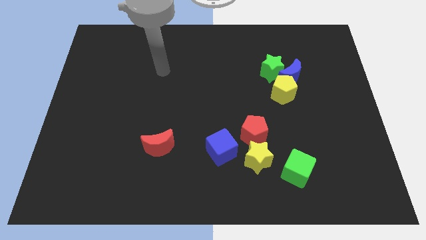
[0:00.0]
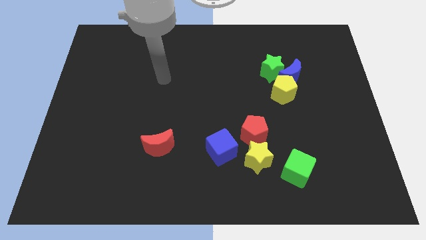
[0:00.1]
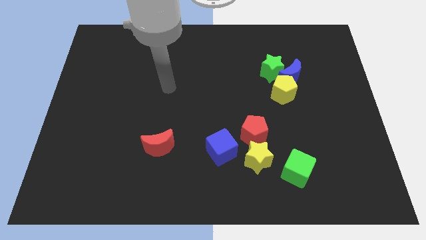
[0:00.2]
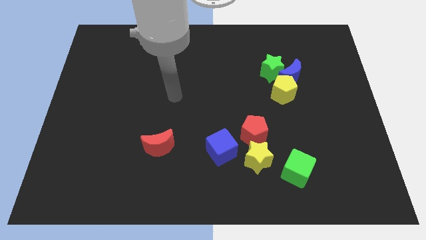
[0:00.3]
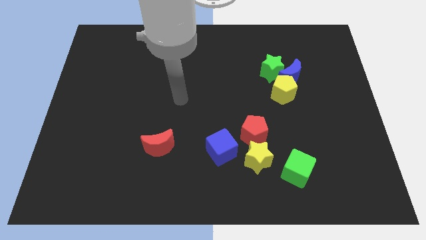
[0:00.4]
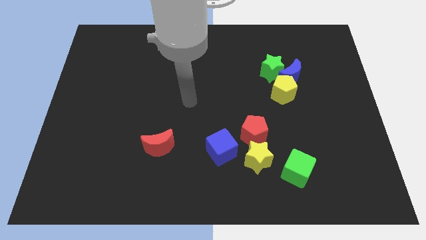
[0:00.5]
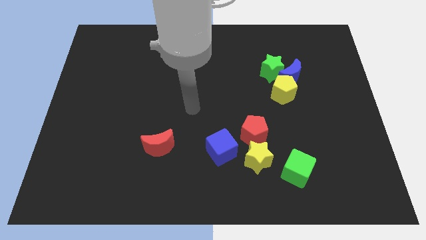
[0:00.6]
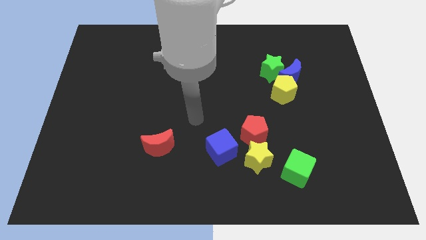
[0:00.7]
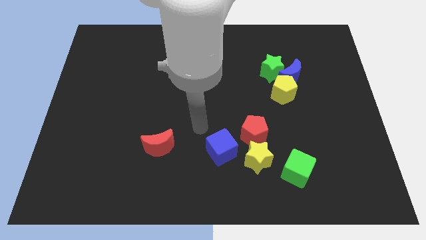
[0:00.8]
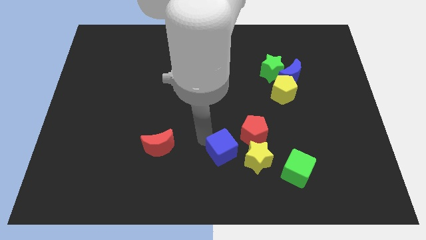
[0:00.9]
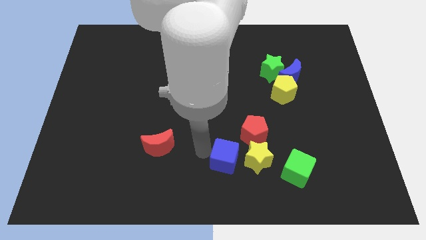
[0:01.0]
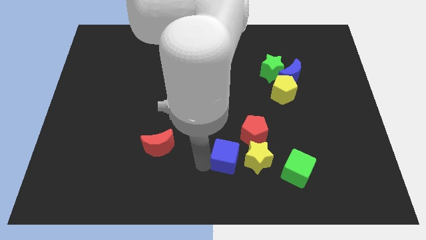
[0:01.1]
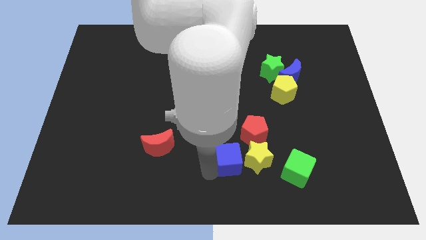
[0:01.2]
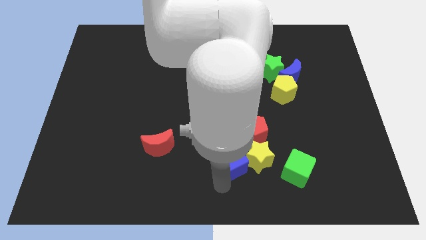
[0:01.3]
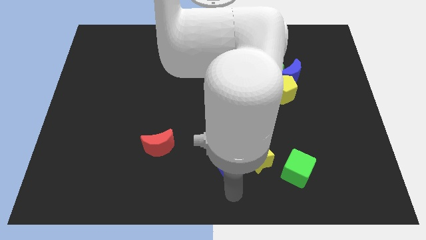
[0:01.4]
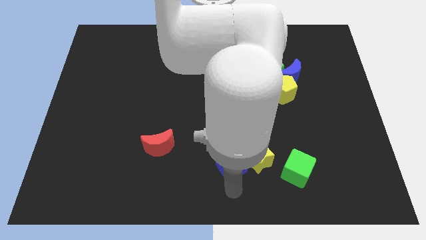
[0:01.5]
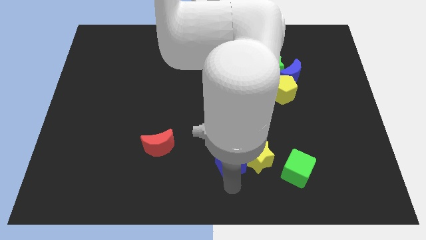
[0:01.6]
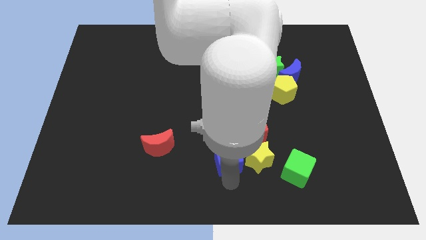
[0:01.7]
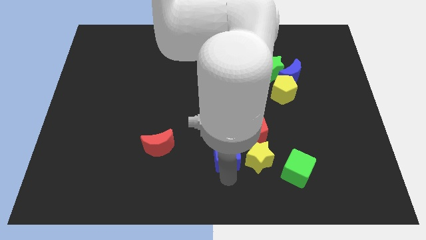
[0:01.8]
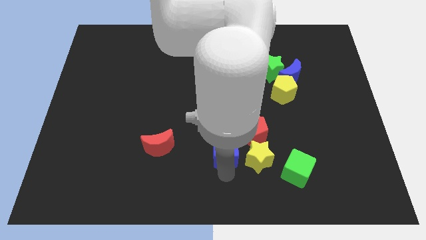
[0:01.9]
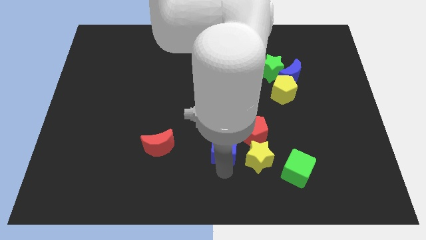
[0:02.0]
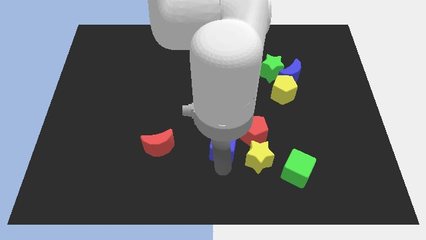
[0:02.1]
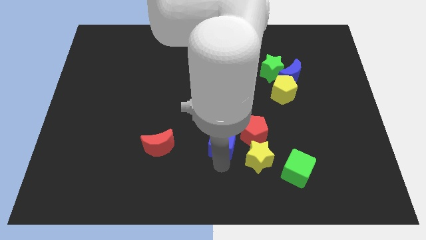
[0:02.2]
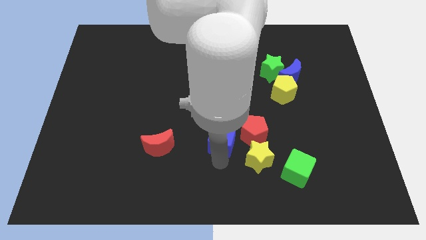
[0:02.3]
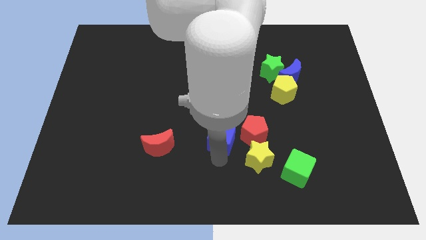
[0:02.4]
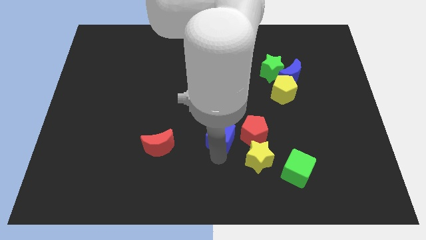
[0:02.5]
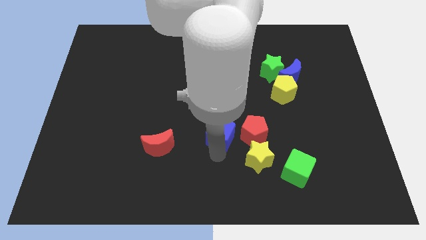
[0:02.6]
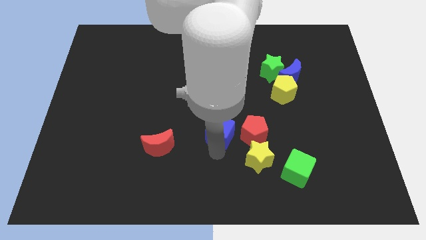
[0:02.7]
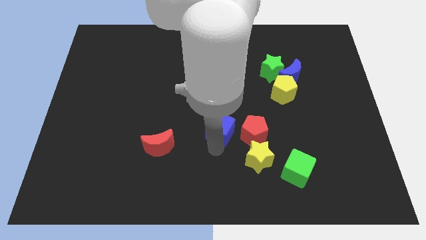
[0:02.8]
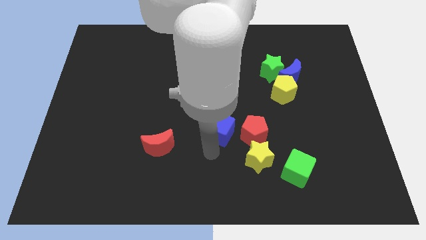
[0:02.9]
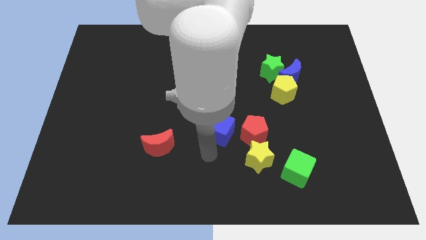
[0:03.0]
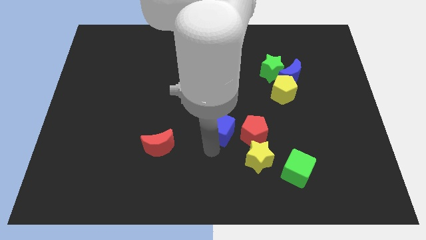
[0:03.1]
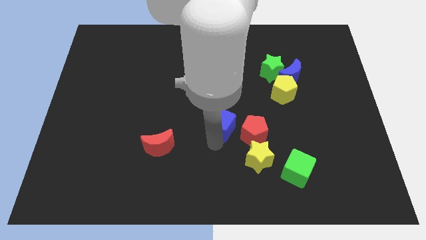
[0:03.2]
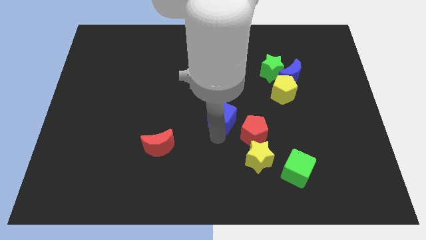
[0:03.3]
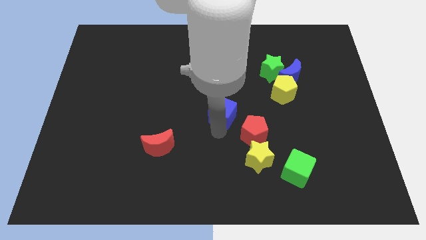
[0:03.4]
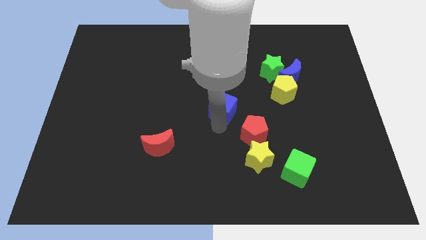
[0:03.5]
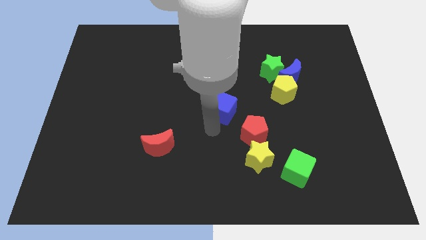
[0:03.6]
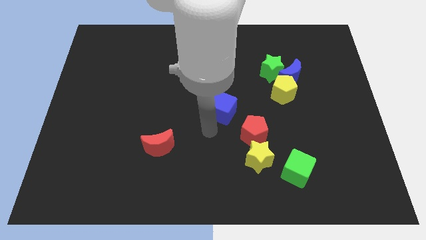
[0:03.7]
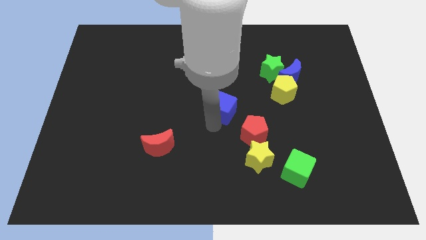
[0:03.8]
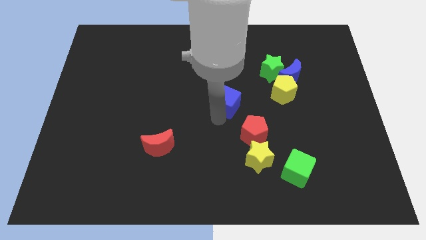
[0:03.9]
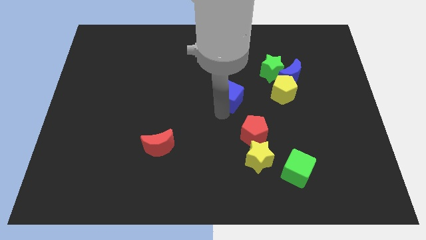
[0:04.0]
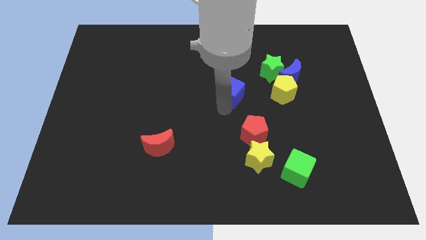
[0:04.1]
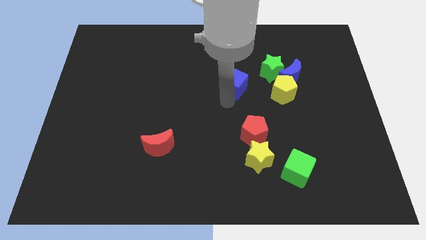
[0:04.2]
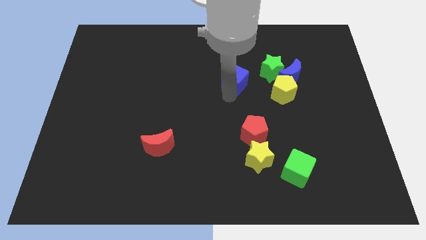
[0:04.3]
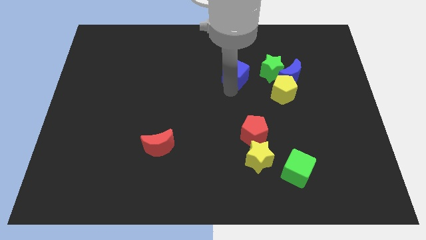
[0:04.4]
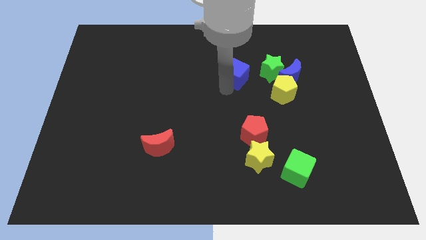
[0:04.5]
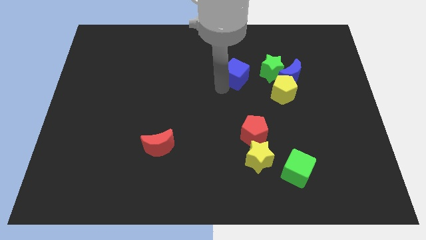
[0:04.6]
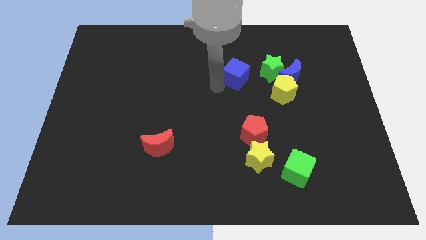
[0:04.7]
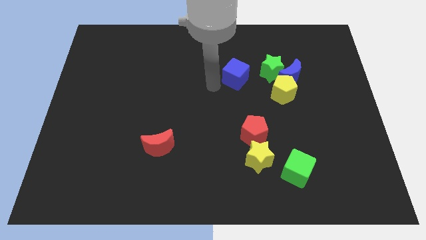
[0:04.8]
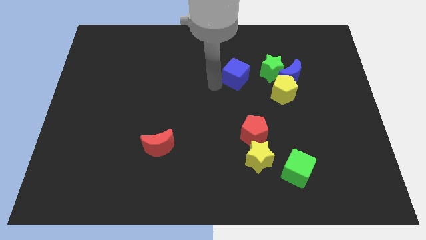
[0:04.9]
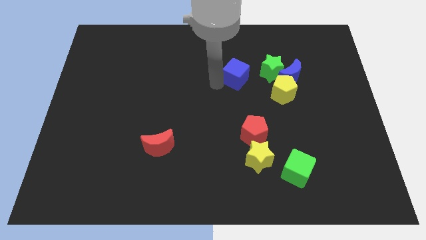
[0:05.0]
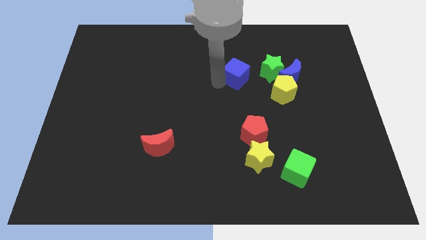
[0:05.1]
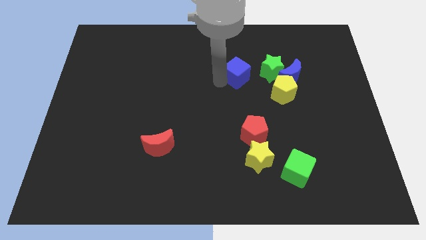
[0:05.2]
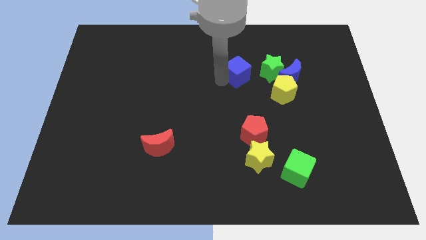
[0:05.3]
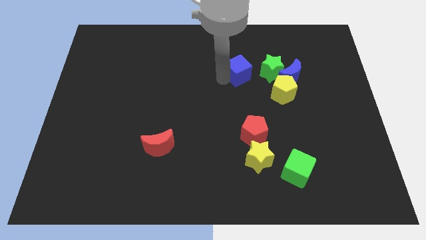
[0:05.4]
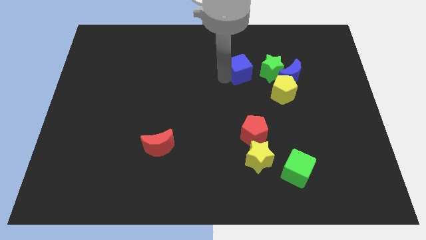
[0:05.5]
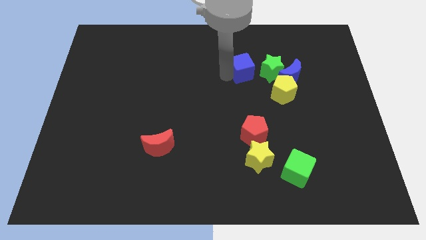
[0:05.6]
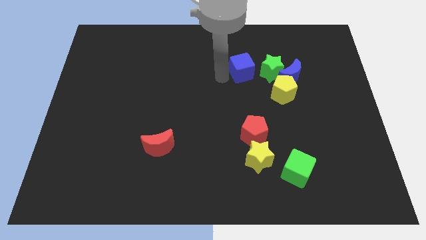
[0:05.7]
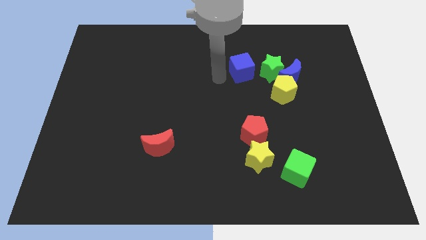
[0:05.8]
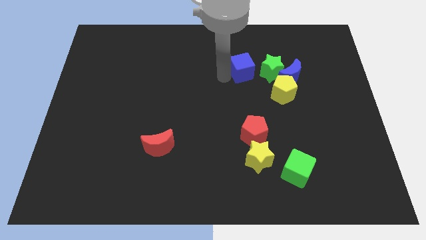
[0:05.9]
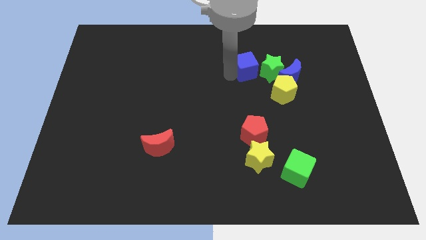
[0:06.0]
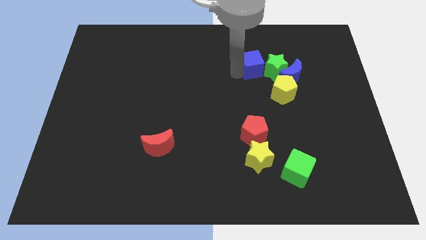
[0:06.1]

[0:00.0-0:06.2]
push the blue cube to the top left of the blue moon

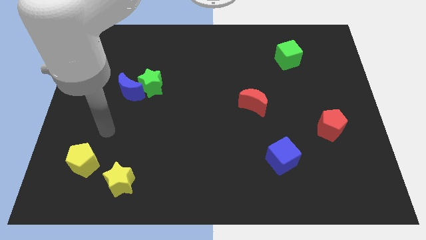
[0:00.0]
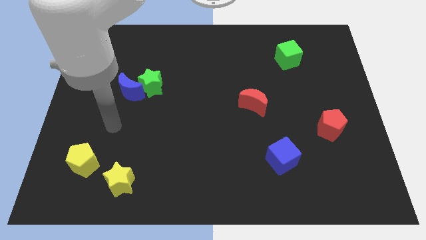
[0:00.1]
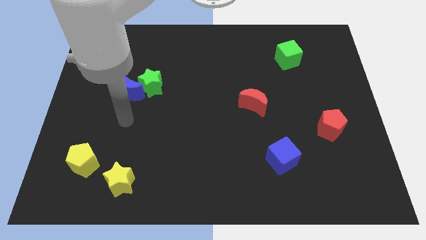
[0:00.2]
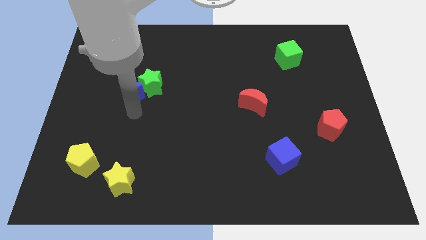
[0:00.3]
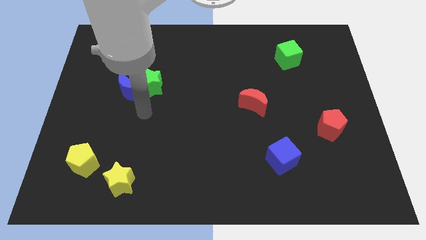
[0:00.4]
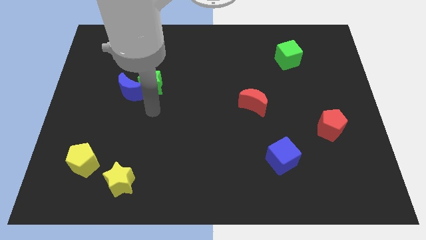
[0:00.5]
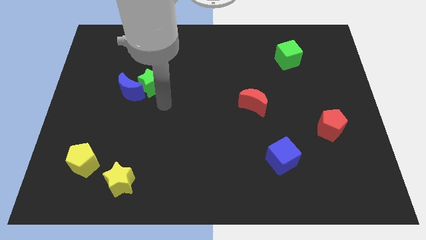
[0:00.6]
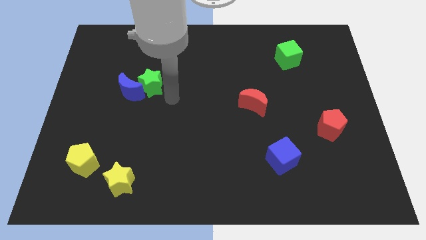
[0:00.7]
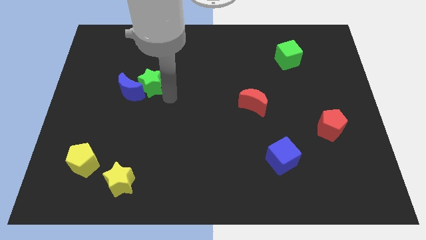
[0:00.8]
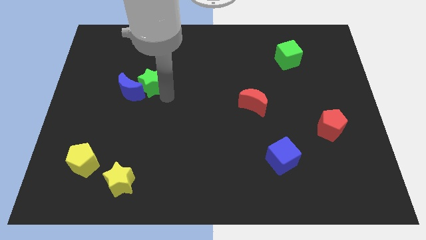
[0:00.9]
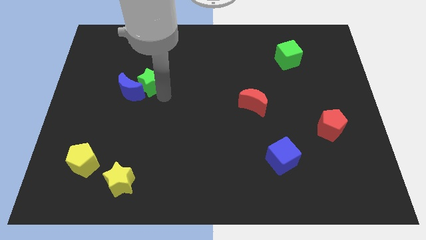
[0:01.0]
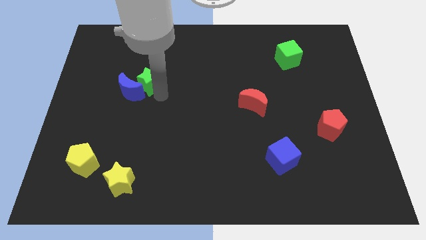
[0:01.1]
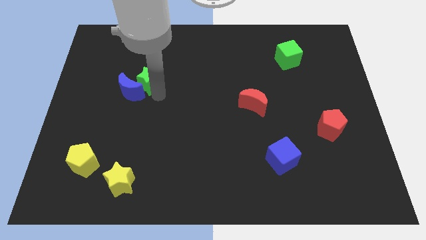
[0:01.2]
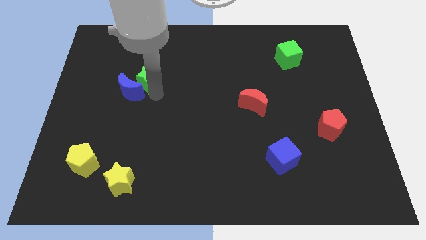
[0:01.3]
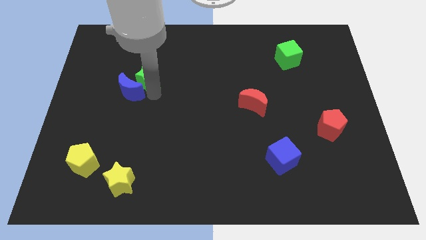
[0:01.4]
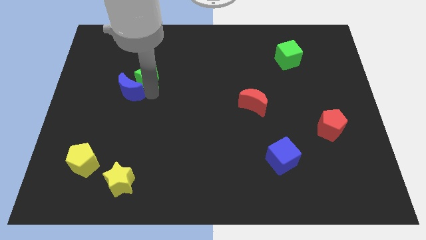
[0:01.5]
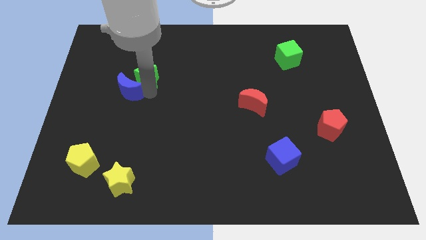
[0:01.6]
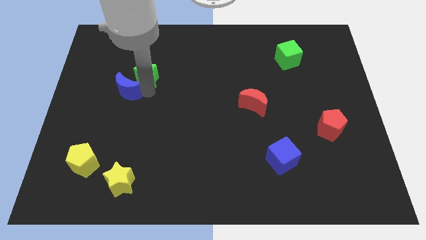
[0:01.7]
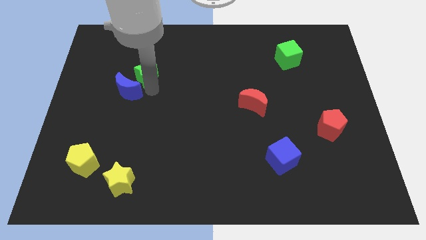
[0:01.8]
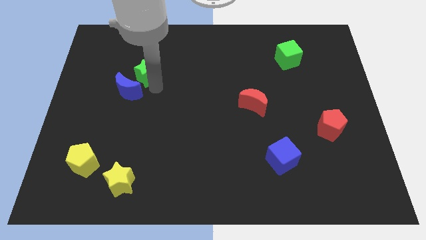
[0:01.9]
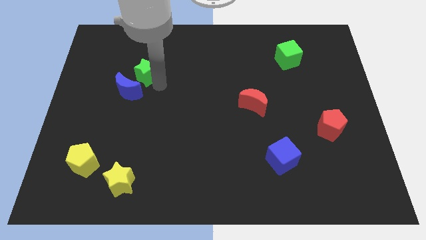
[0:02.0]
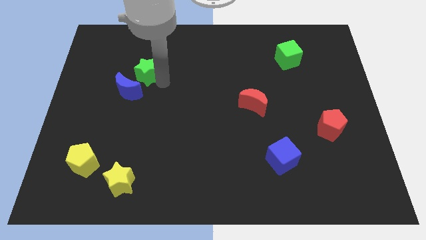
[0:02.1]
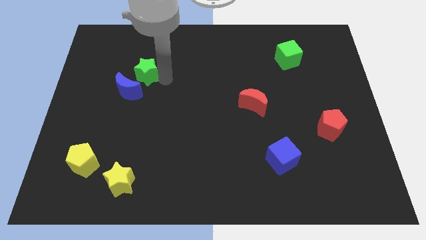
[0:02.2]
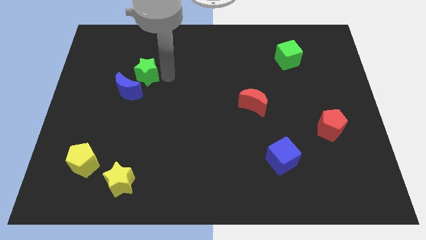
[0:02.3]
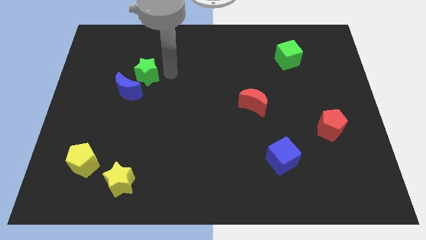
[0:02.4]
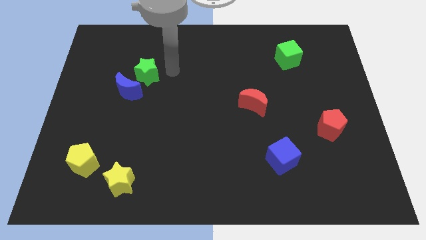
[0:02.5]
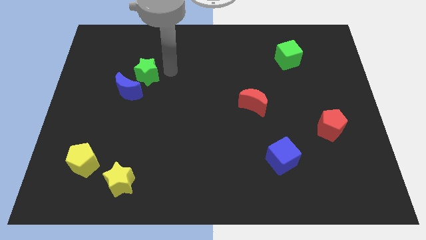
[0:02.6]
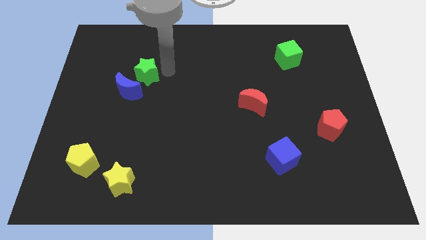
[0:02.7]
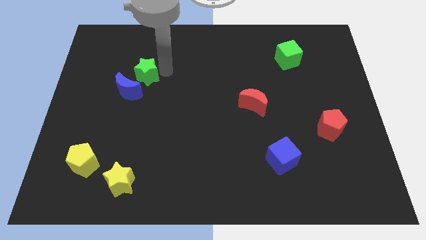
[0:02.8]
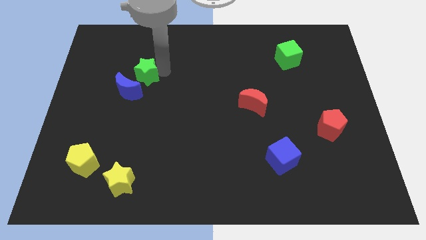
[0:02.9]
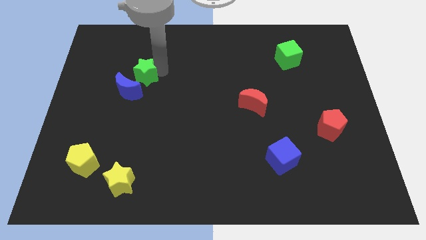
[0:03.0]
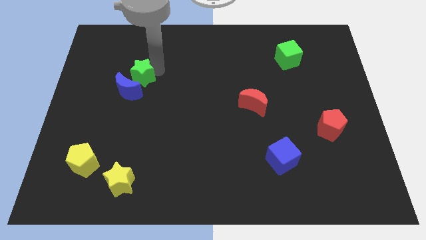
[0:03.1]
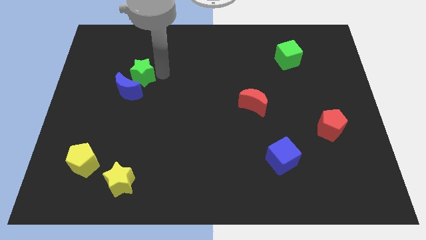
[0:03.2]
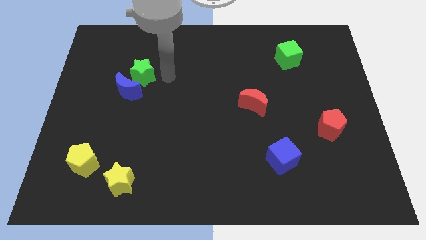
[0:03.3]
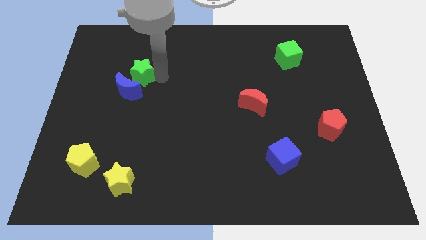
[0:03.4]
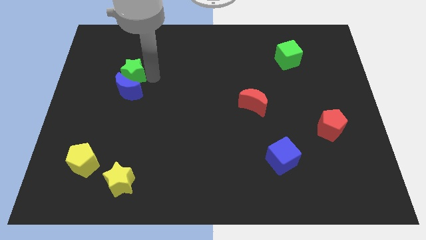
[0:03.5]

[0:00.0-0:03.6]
slide the green star to the top left side of the blue moon
